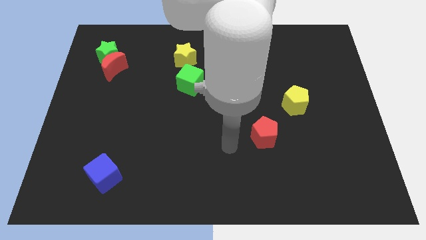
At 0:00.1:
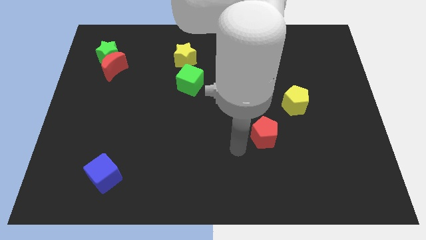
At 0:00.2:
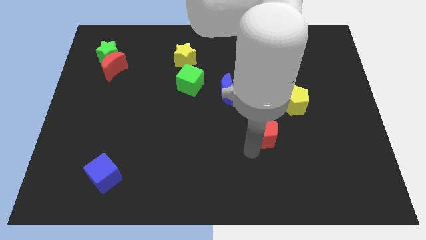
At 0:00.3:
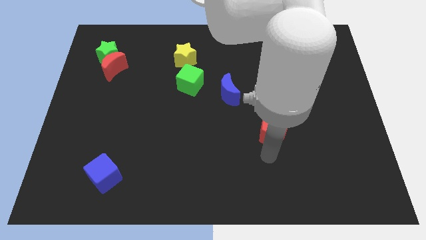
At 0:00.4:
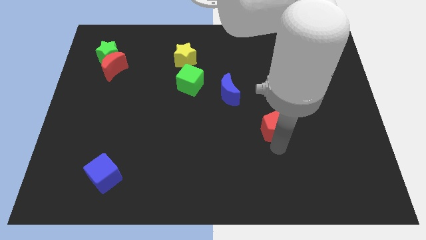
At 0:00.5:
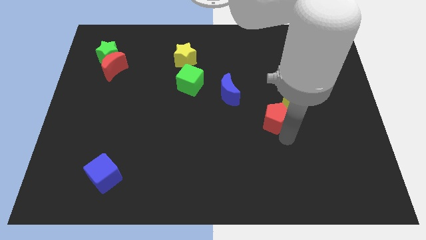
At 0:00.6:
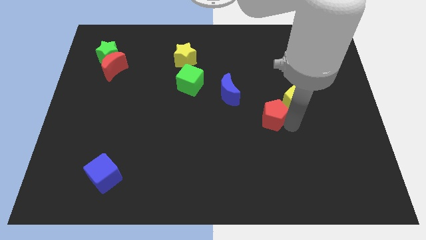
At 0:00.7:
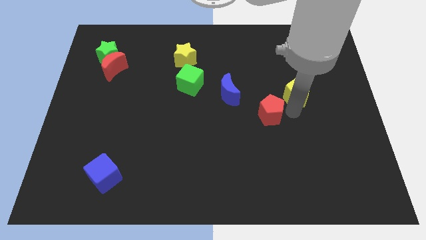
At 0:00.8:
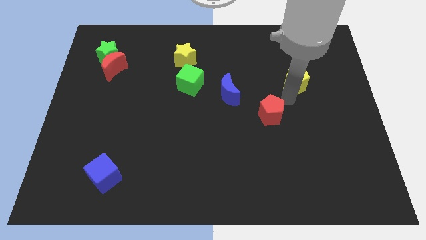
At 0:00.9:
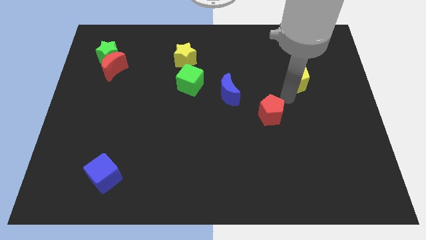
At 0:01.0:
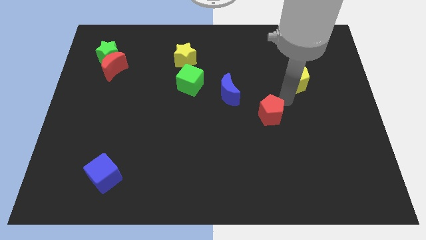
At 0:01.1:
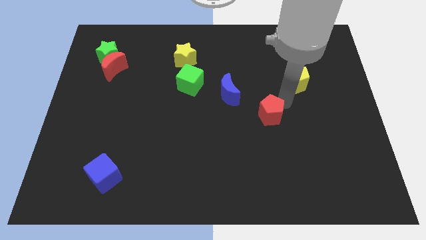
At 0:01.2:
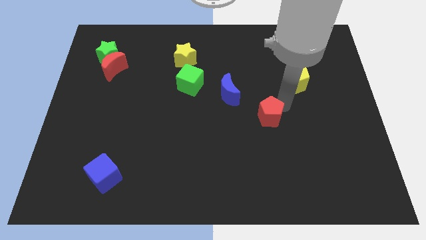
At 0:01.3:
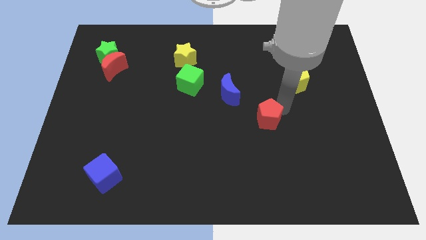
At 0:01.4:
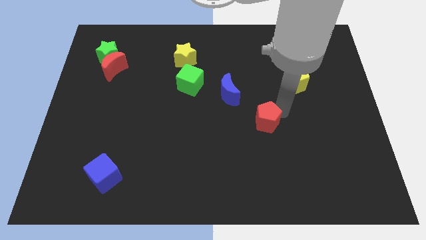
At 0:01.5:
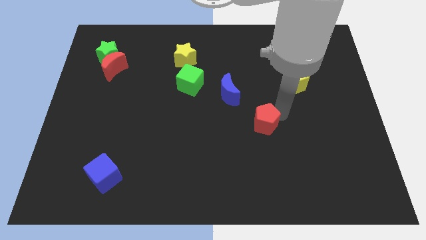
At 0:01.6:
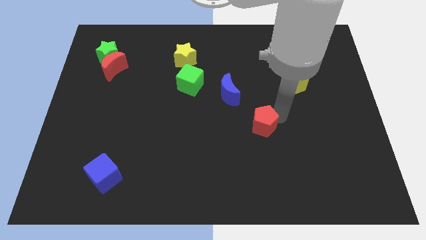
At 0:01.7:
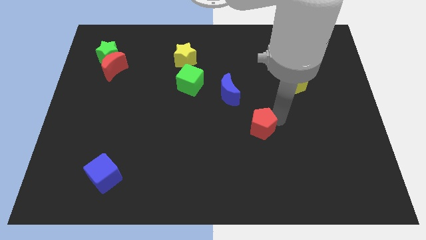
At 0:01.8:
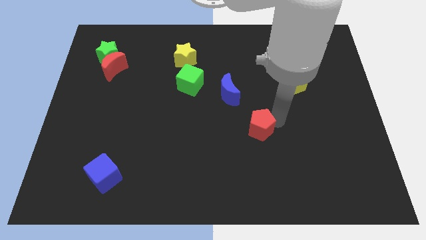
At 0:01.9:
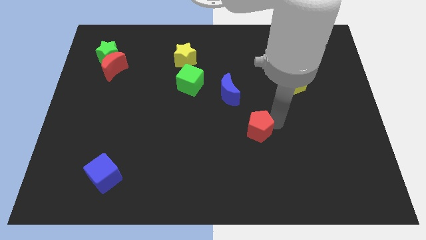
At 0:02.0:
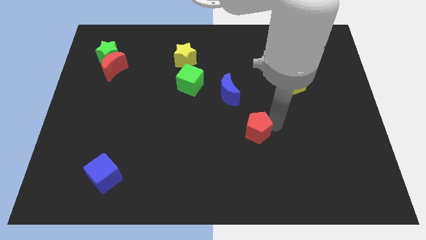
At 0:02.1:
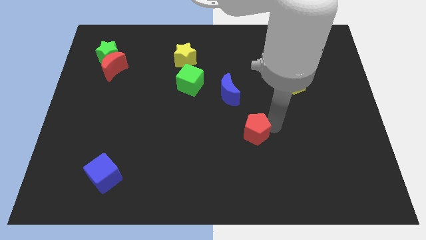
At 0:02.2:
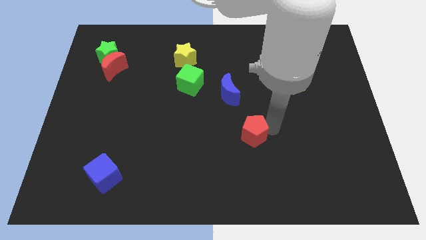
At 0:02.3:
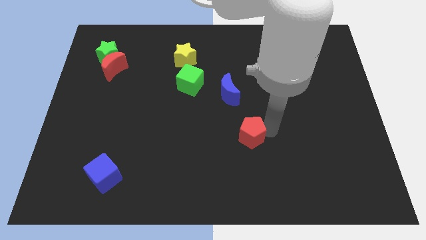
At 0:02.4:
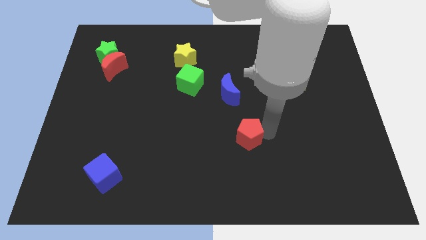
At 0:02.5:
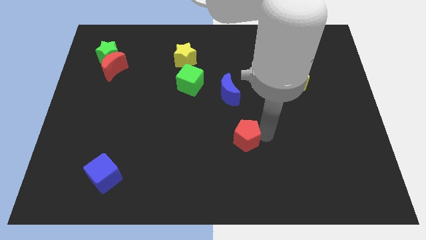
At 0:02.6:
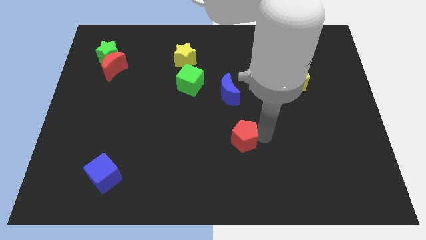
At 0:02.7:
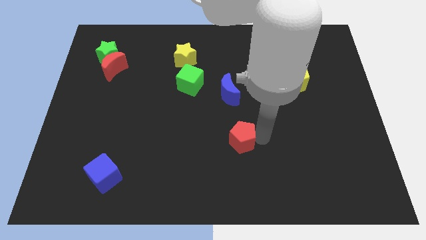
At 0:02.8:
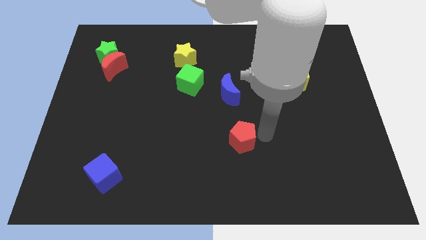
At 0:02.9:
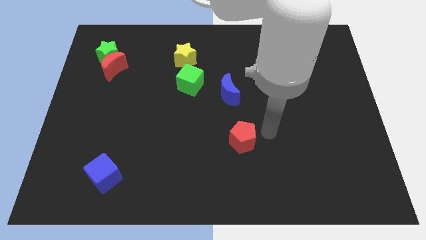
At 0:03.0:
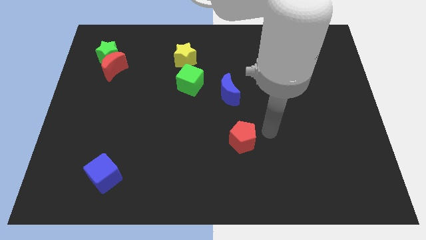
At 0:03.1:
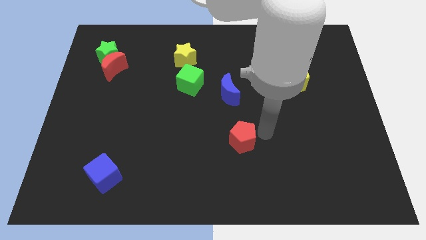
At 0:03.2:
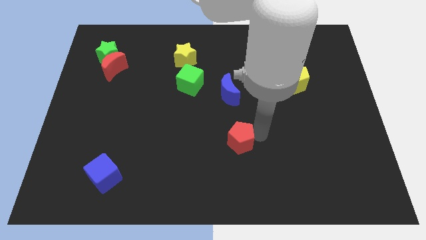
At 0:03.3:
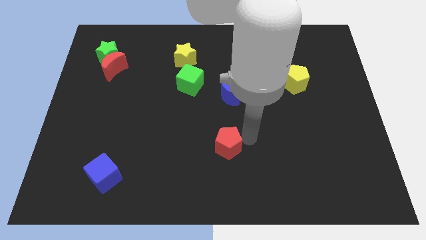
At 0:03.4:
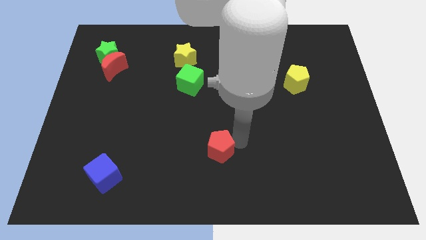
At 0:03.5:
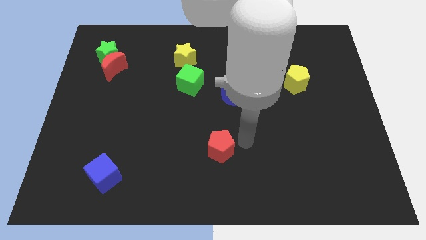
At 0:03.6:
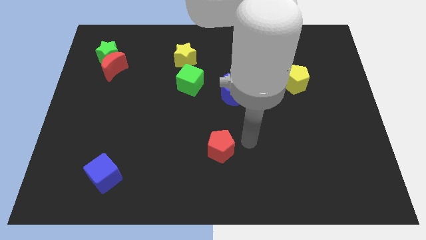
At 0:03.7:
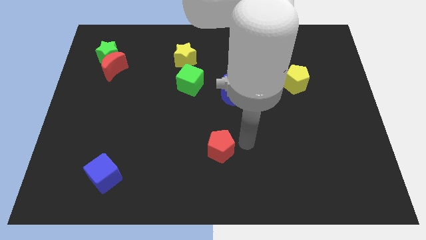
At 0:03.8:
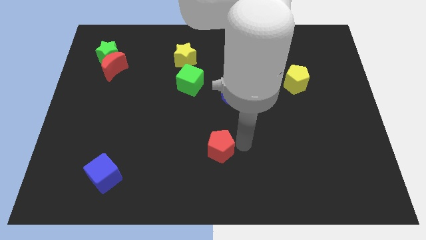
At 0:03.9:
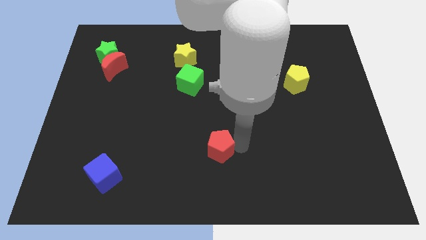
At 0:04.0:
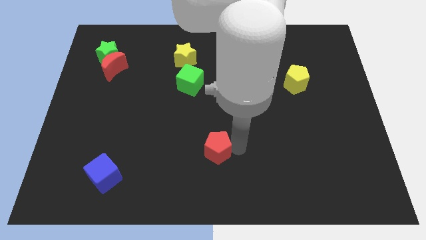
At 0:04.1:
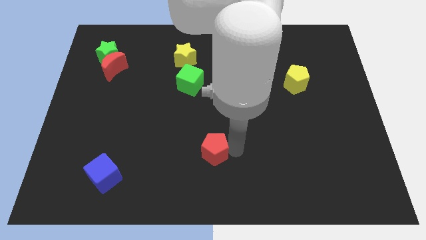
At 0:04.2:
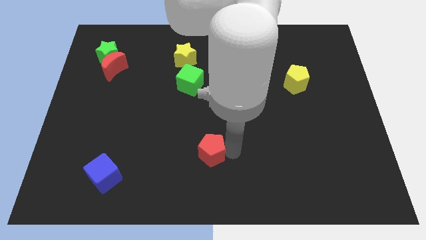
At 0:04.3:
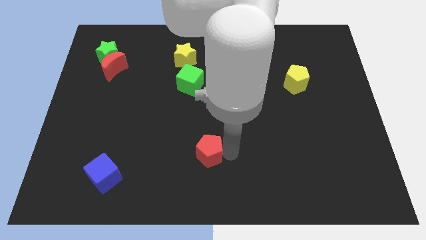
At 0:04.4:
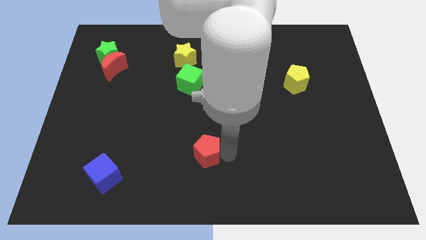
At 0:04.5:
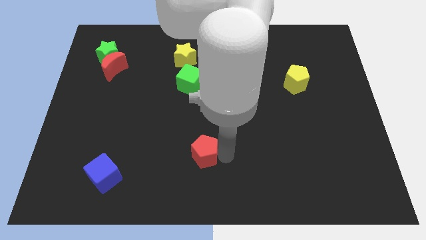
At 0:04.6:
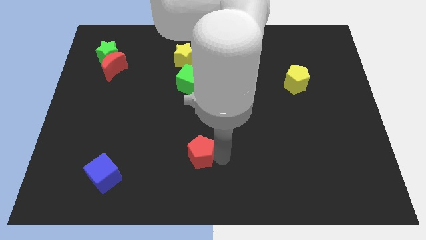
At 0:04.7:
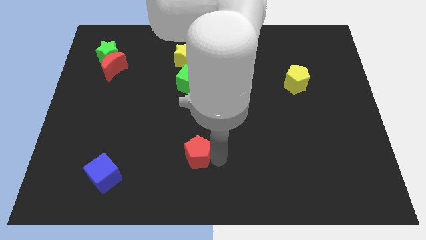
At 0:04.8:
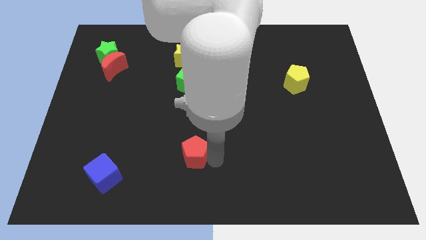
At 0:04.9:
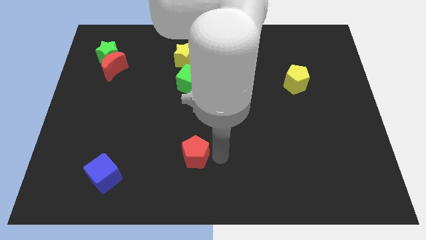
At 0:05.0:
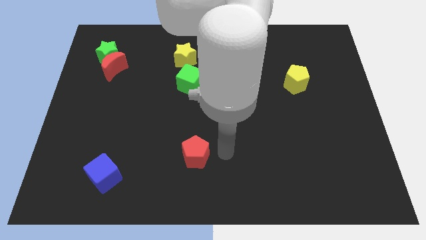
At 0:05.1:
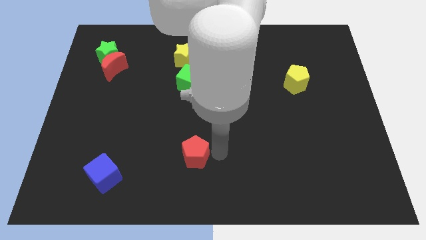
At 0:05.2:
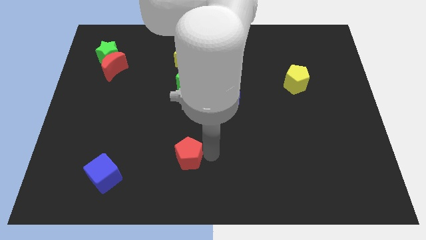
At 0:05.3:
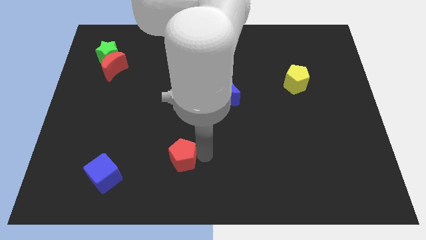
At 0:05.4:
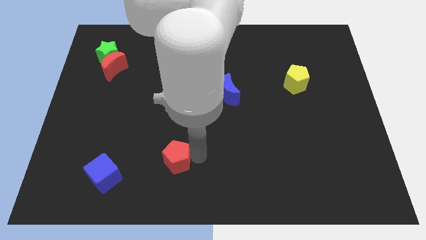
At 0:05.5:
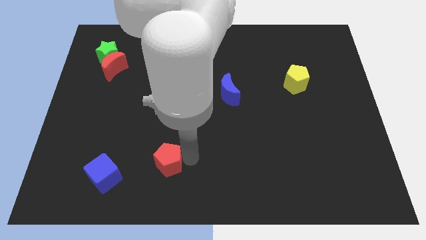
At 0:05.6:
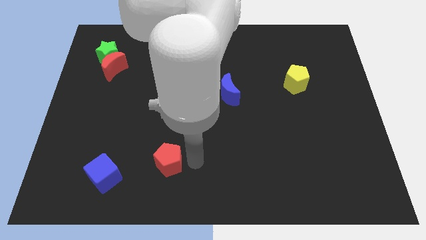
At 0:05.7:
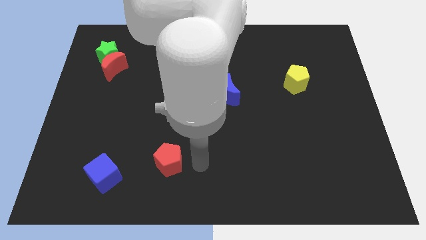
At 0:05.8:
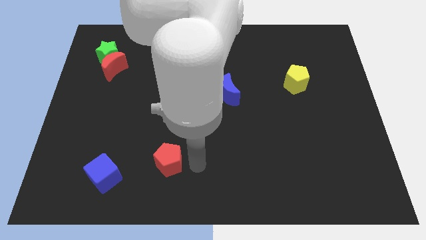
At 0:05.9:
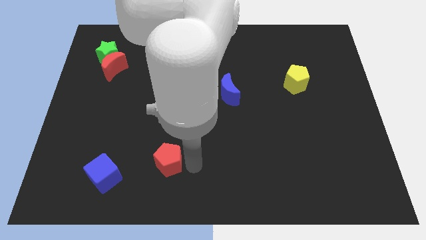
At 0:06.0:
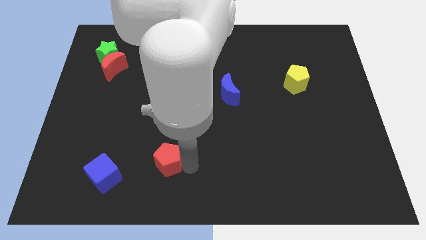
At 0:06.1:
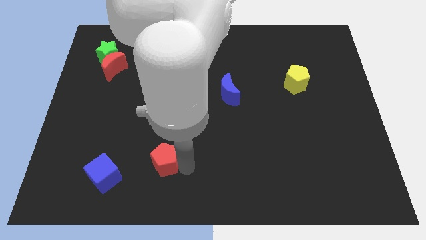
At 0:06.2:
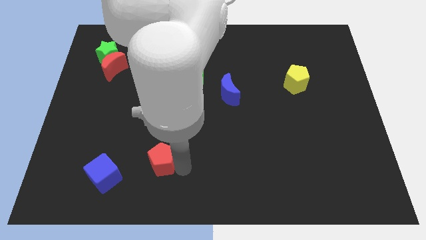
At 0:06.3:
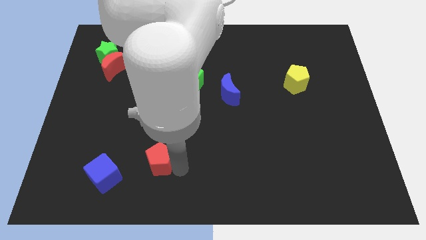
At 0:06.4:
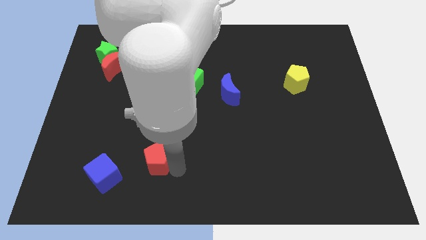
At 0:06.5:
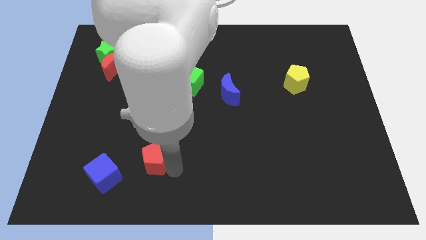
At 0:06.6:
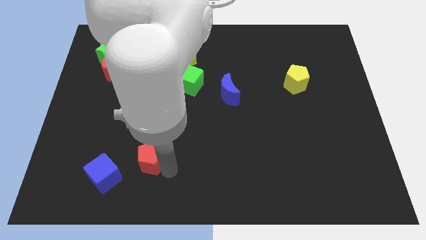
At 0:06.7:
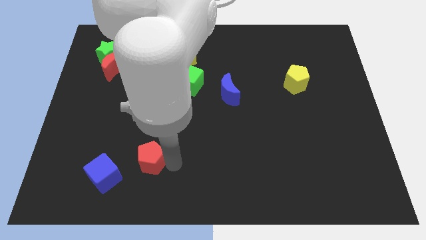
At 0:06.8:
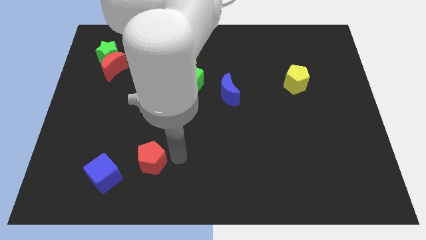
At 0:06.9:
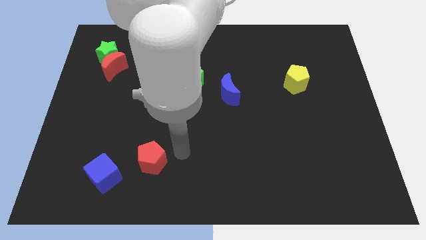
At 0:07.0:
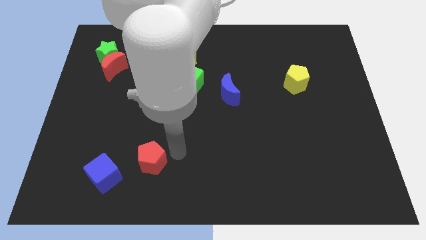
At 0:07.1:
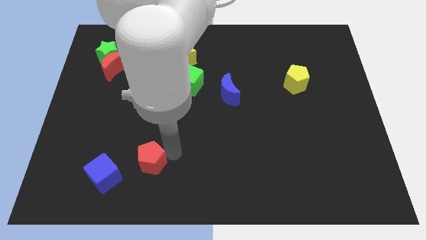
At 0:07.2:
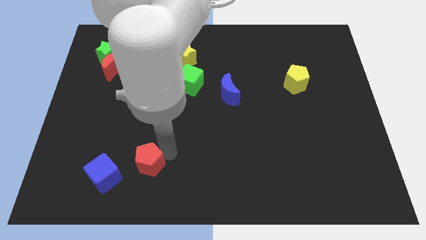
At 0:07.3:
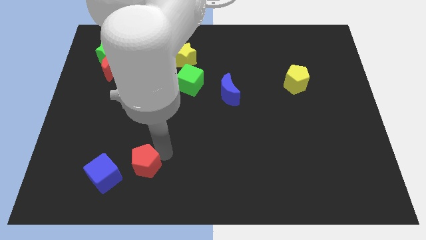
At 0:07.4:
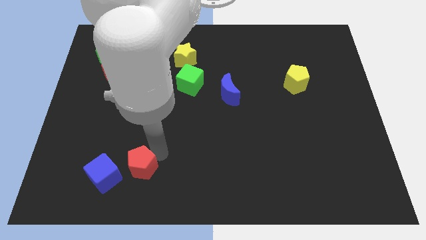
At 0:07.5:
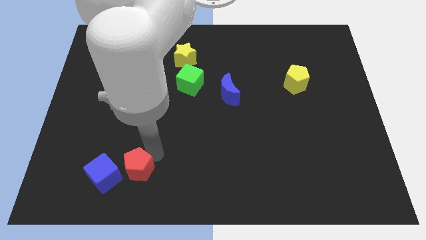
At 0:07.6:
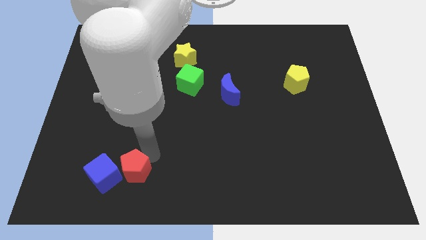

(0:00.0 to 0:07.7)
slide the red pentagon to the blue cube
